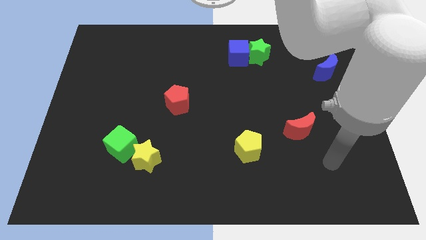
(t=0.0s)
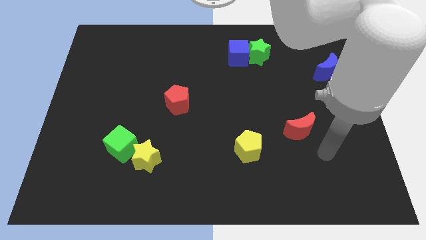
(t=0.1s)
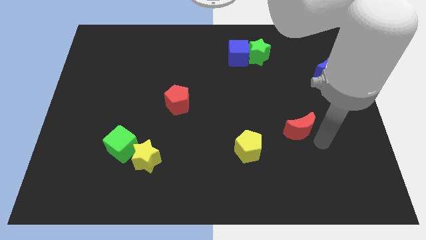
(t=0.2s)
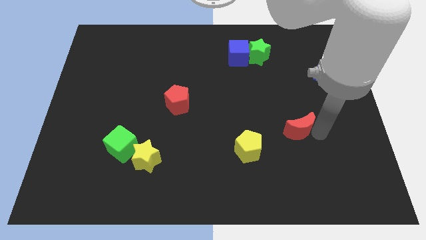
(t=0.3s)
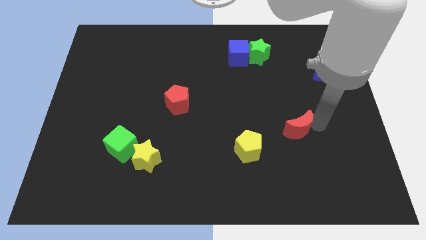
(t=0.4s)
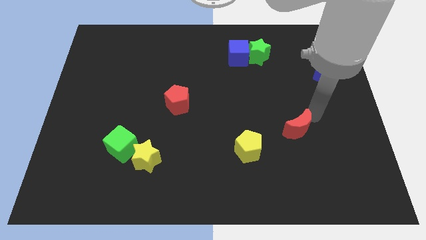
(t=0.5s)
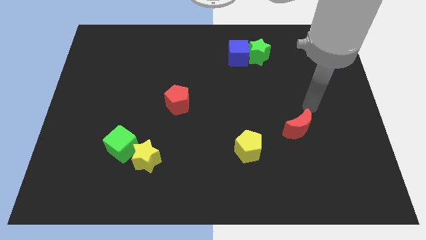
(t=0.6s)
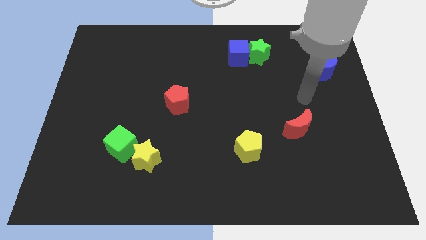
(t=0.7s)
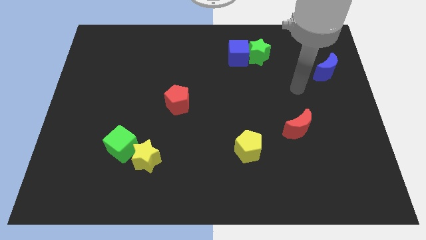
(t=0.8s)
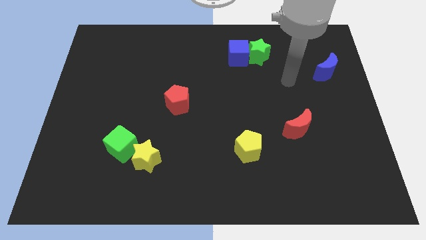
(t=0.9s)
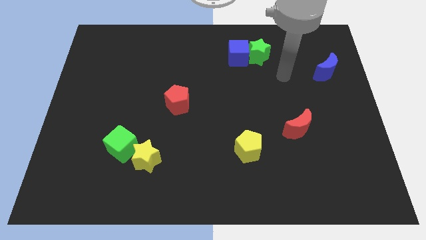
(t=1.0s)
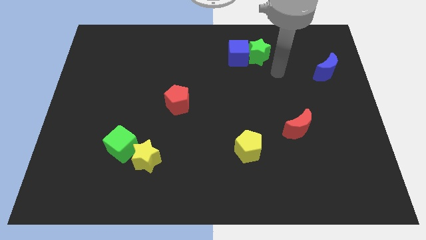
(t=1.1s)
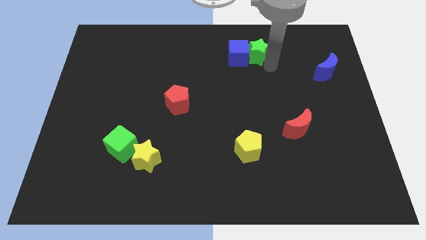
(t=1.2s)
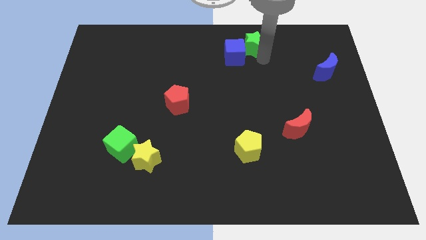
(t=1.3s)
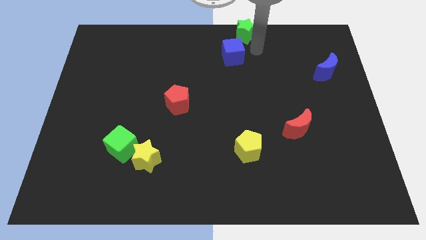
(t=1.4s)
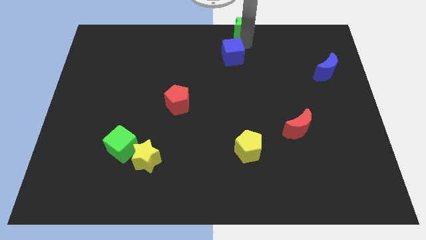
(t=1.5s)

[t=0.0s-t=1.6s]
separate the blue cube from the green star

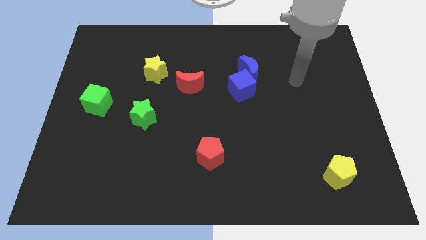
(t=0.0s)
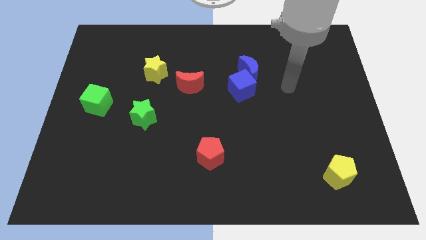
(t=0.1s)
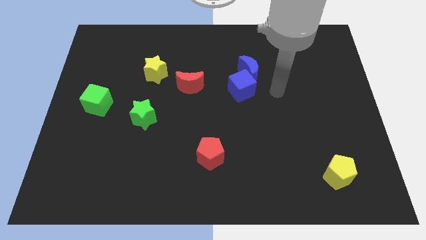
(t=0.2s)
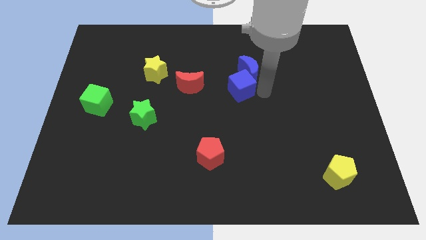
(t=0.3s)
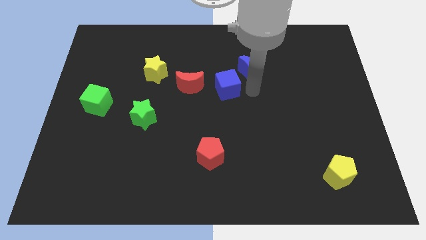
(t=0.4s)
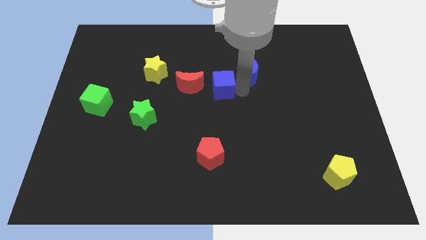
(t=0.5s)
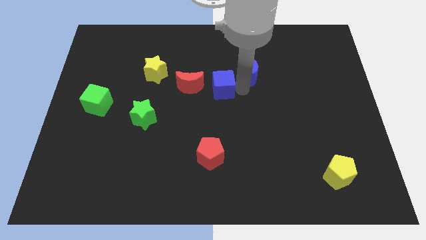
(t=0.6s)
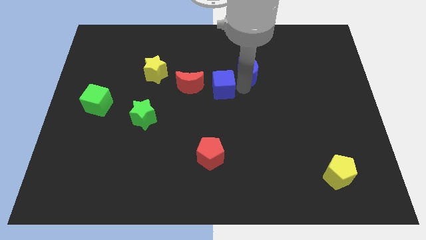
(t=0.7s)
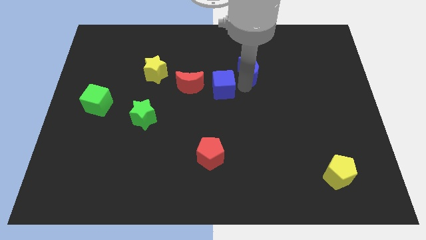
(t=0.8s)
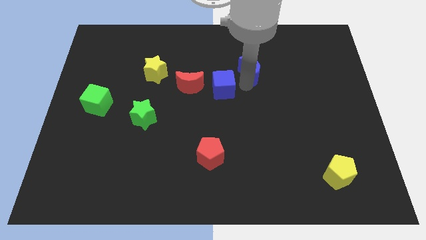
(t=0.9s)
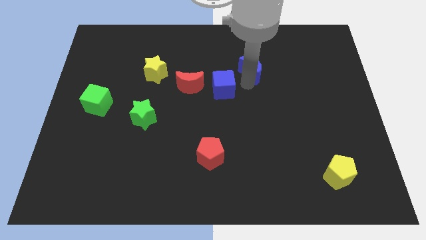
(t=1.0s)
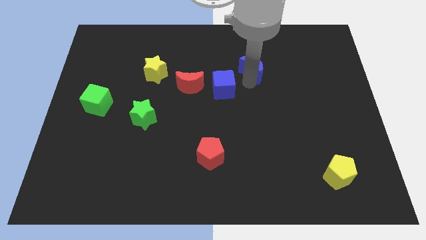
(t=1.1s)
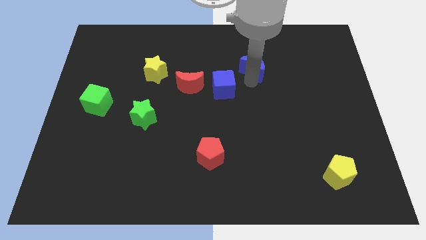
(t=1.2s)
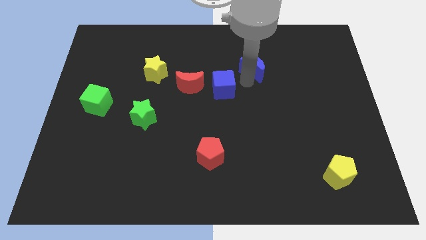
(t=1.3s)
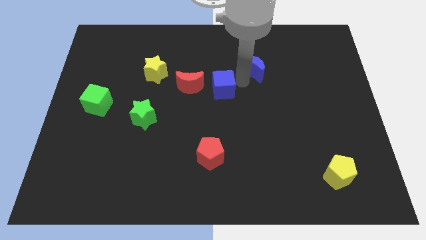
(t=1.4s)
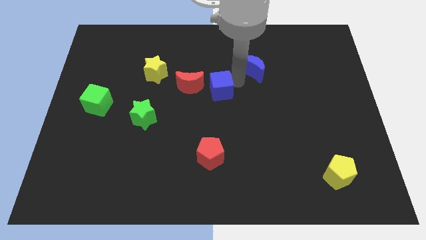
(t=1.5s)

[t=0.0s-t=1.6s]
pull the blue moon apart from the blue cube

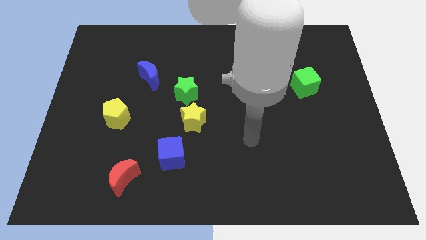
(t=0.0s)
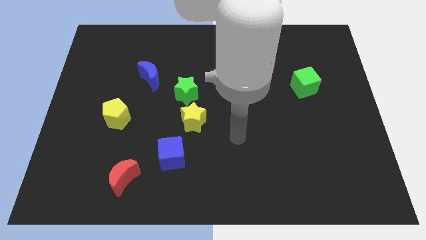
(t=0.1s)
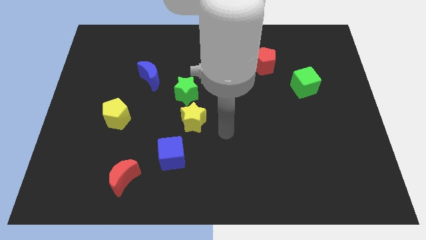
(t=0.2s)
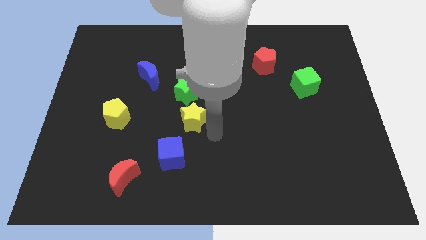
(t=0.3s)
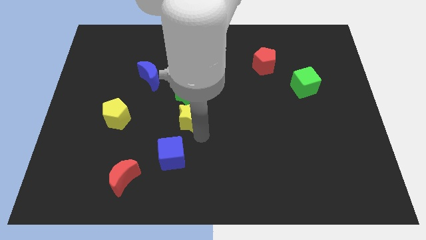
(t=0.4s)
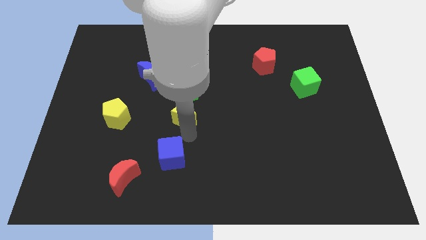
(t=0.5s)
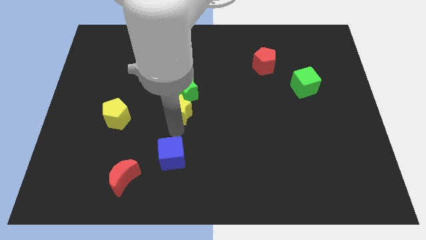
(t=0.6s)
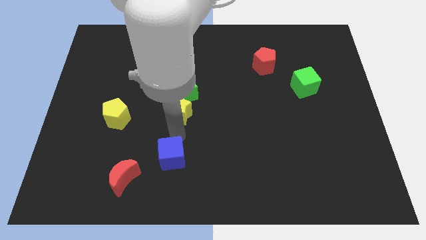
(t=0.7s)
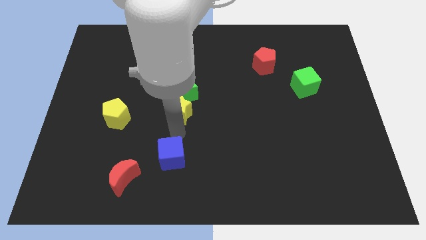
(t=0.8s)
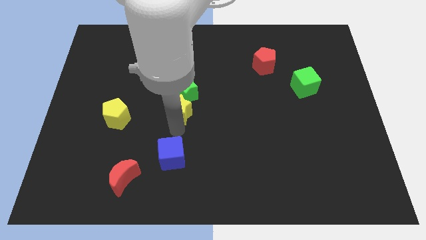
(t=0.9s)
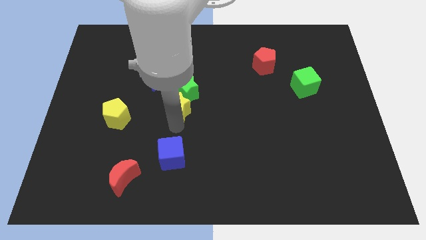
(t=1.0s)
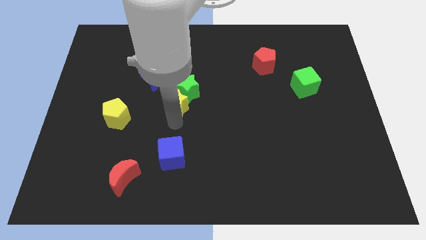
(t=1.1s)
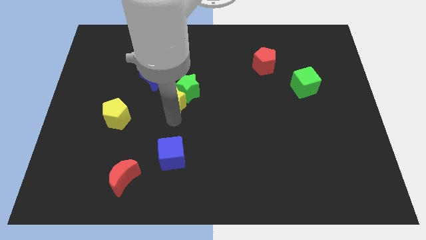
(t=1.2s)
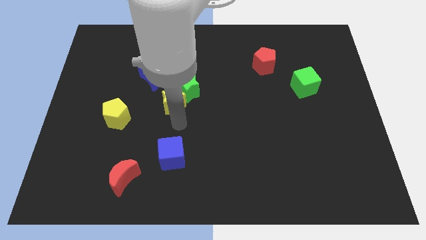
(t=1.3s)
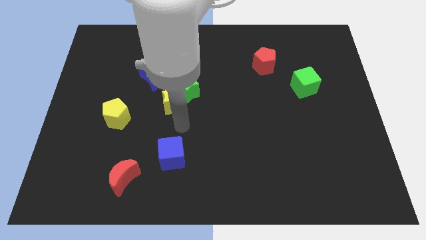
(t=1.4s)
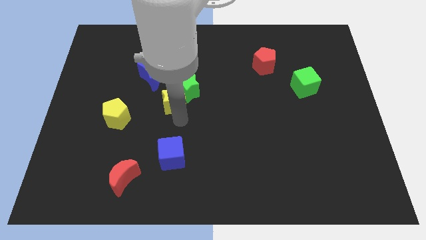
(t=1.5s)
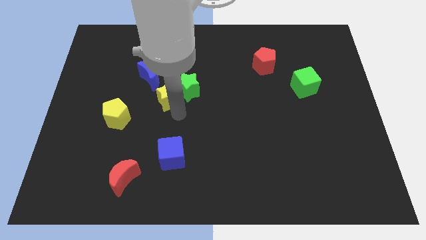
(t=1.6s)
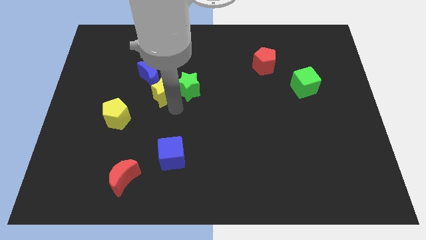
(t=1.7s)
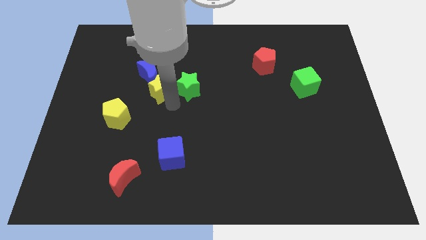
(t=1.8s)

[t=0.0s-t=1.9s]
move the yellow star away from the green star and blue cube

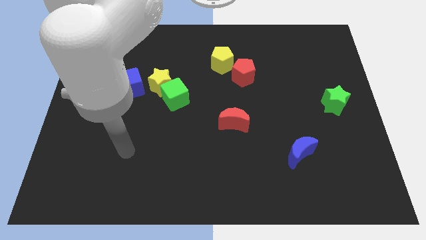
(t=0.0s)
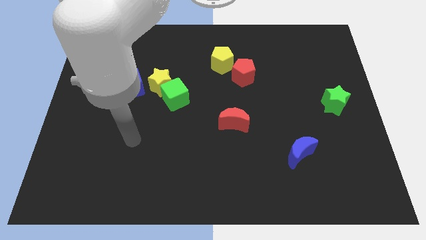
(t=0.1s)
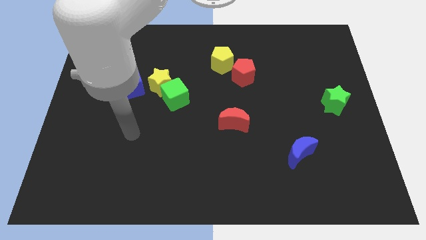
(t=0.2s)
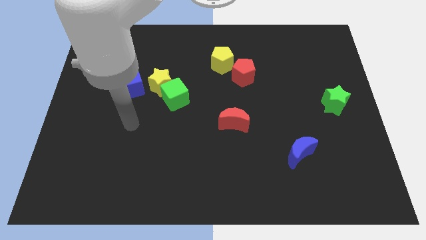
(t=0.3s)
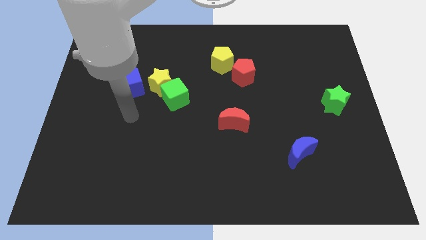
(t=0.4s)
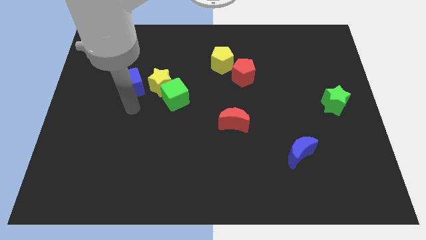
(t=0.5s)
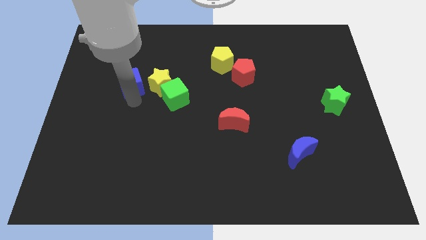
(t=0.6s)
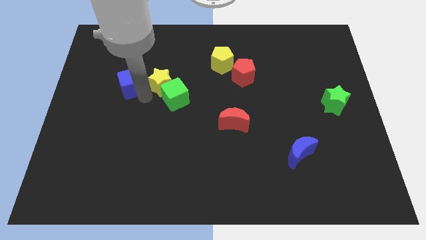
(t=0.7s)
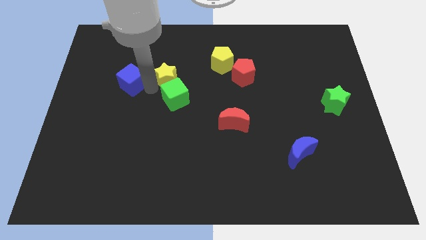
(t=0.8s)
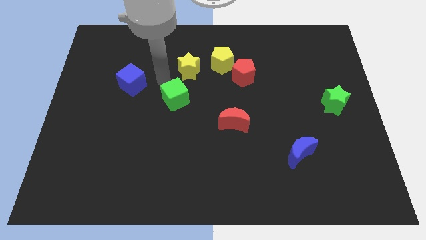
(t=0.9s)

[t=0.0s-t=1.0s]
separate the green cube from the yellow star

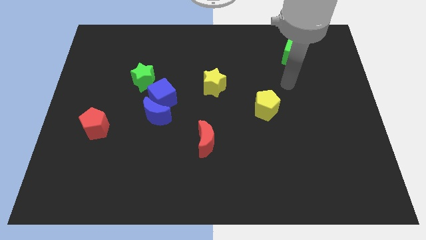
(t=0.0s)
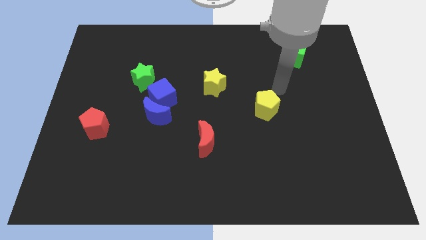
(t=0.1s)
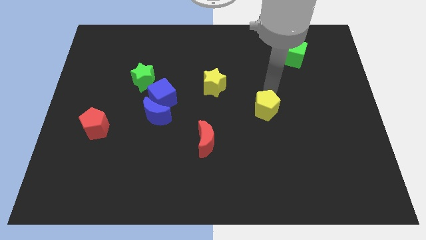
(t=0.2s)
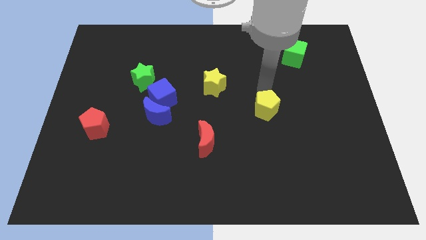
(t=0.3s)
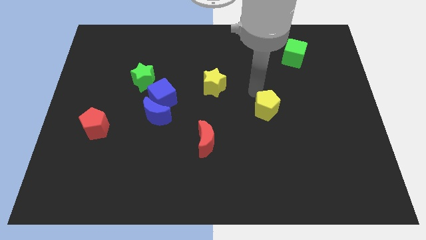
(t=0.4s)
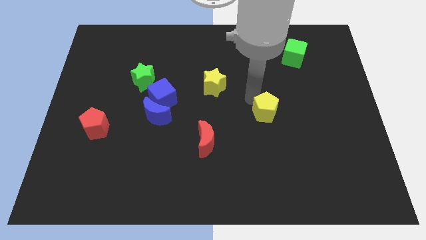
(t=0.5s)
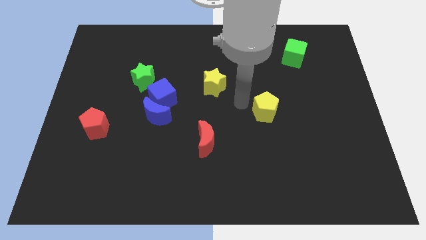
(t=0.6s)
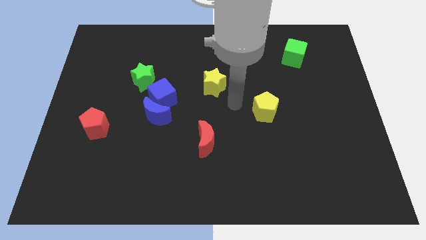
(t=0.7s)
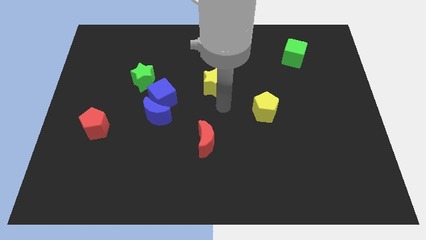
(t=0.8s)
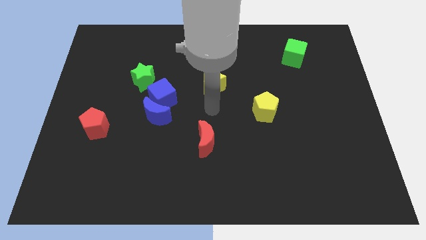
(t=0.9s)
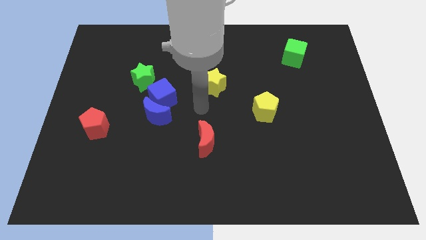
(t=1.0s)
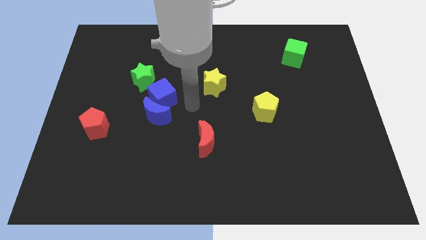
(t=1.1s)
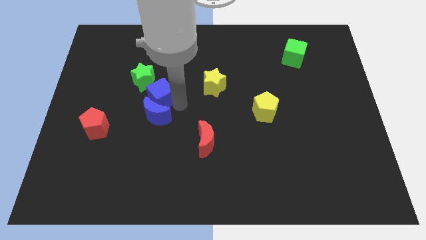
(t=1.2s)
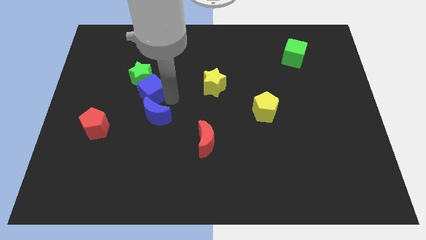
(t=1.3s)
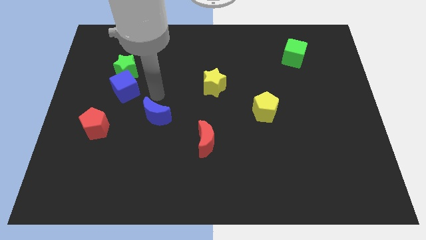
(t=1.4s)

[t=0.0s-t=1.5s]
separate the blue moon from the blue cube

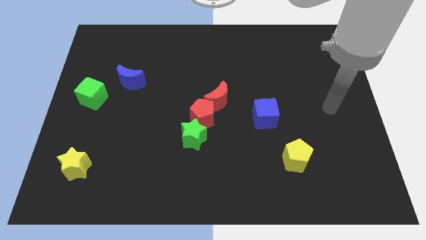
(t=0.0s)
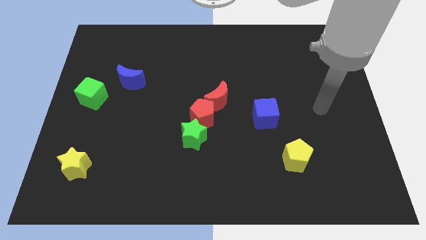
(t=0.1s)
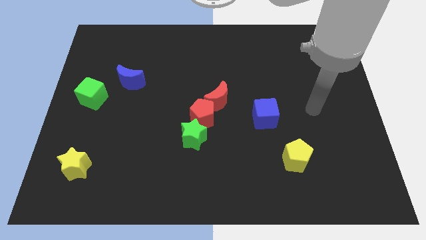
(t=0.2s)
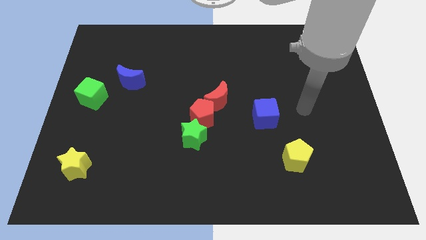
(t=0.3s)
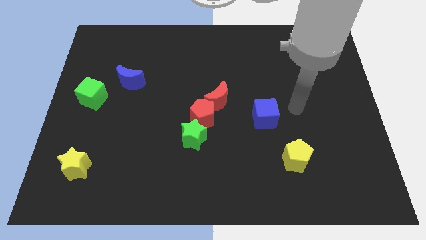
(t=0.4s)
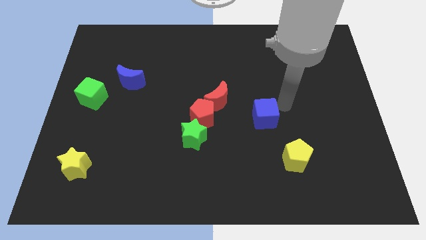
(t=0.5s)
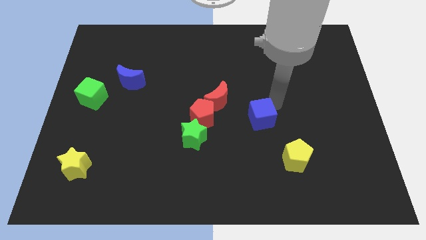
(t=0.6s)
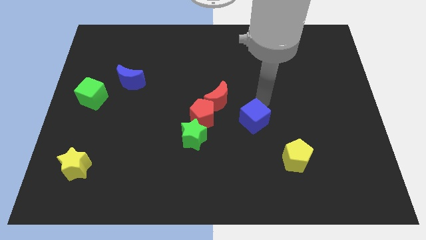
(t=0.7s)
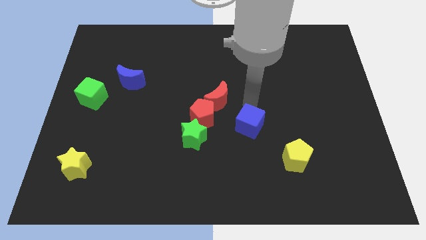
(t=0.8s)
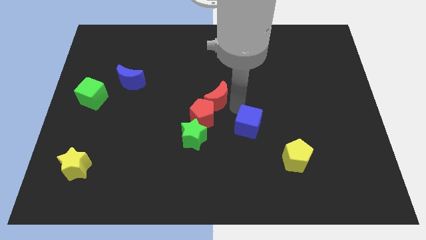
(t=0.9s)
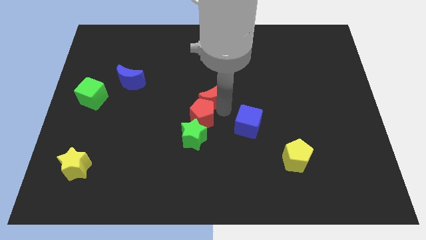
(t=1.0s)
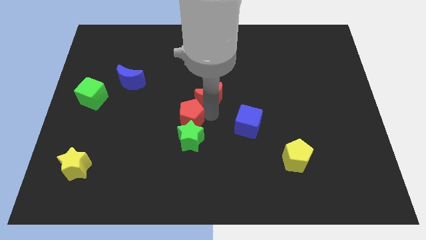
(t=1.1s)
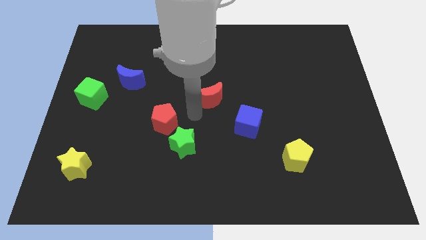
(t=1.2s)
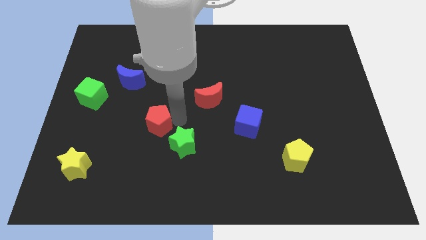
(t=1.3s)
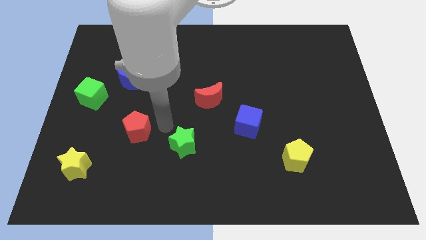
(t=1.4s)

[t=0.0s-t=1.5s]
separate the green star from the red pentagon

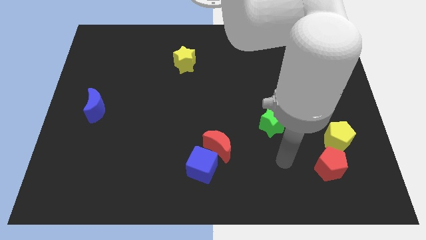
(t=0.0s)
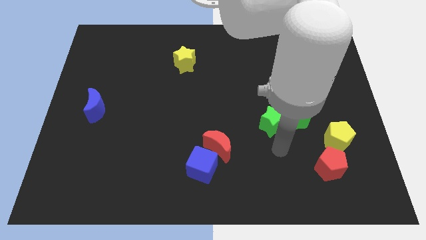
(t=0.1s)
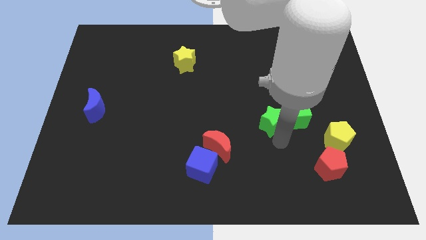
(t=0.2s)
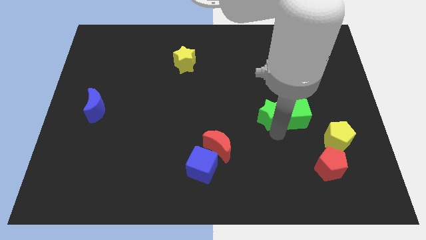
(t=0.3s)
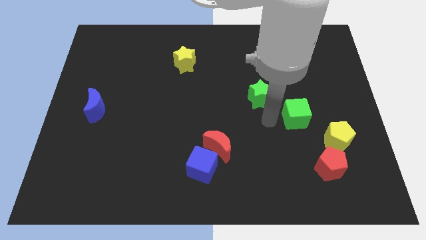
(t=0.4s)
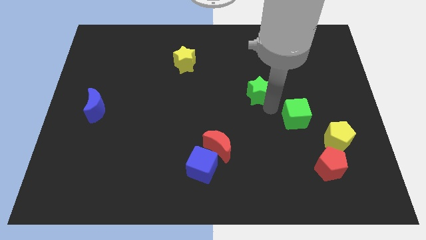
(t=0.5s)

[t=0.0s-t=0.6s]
pull the green cube apart from the green star
